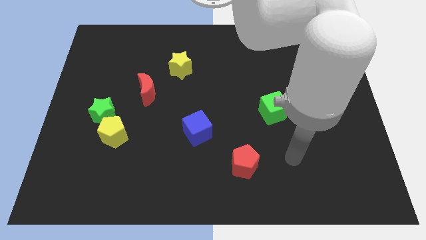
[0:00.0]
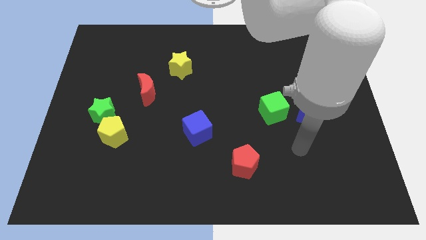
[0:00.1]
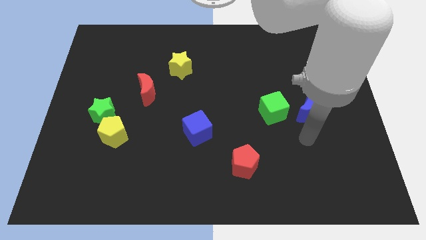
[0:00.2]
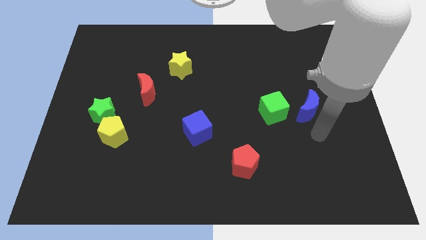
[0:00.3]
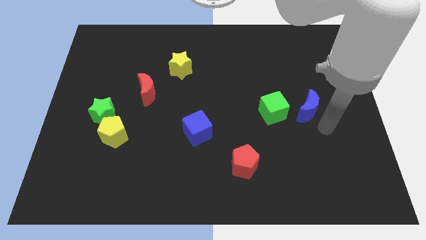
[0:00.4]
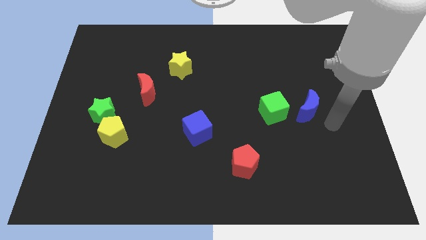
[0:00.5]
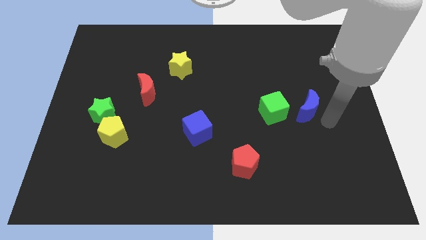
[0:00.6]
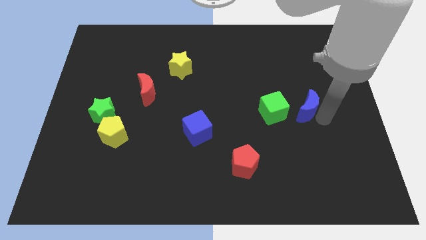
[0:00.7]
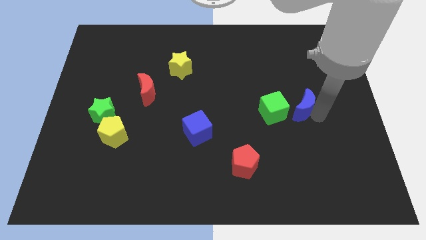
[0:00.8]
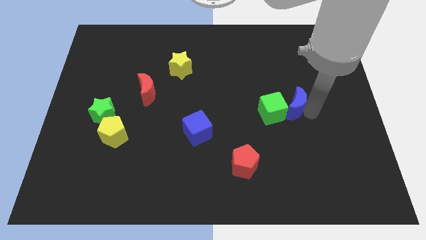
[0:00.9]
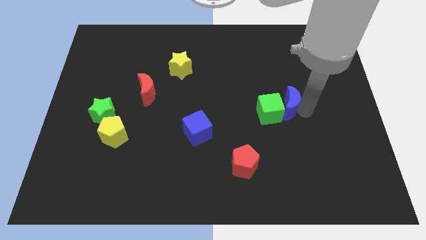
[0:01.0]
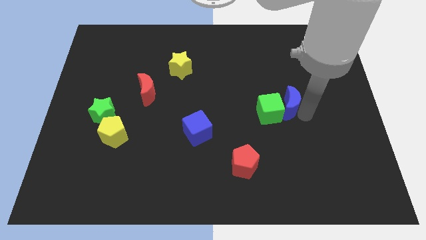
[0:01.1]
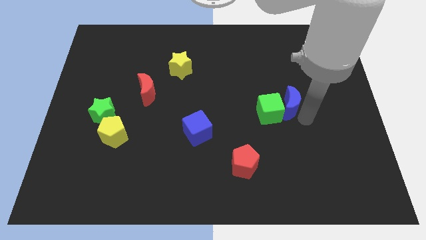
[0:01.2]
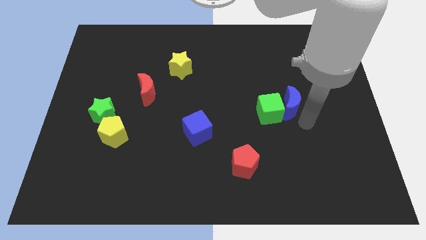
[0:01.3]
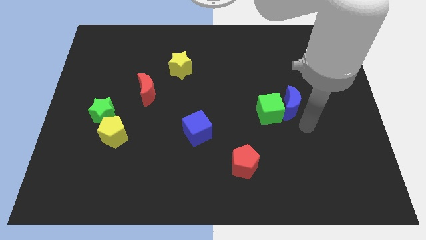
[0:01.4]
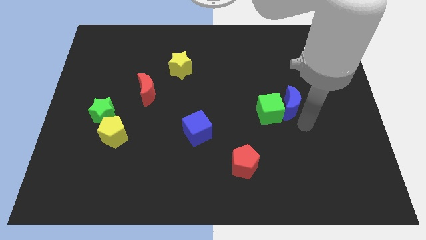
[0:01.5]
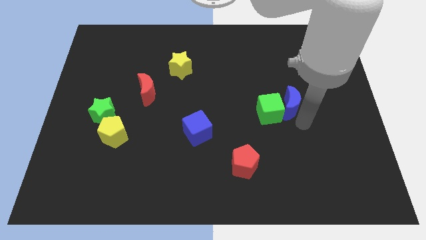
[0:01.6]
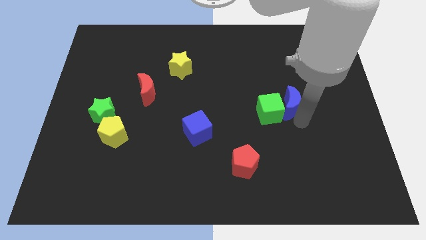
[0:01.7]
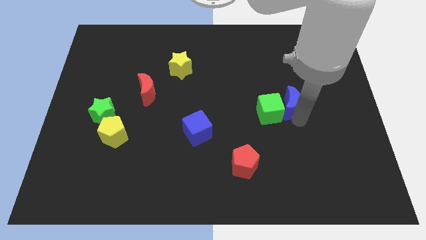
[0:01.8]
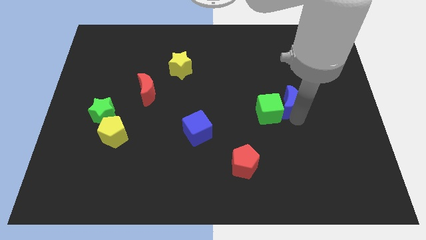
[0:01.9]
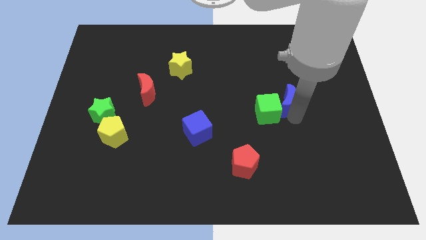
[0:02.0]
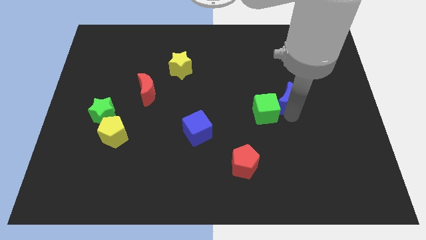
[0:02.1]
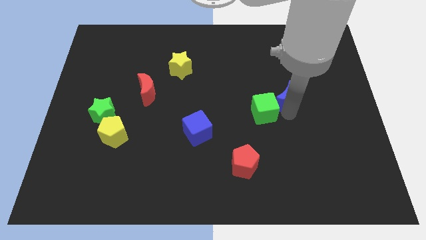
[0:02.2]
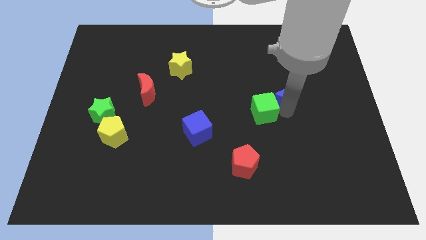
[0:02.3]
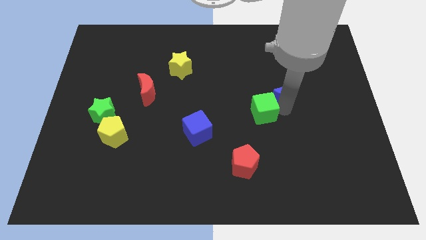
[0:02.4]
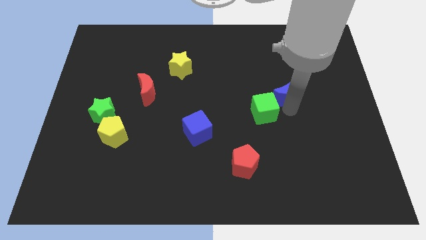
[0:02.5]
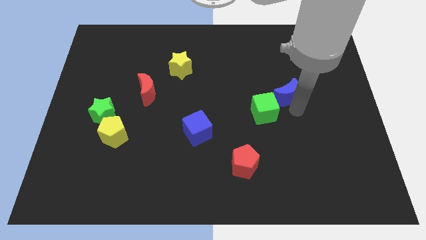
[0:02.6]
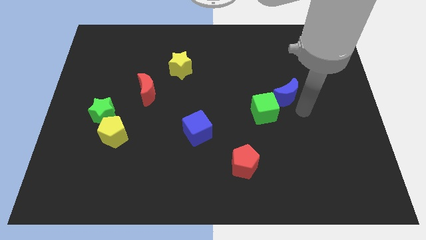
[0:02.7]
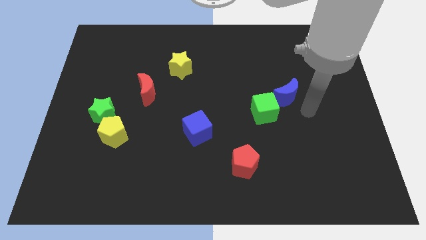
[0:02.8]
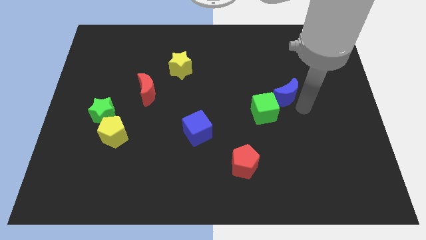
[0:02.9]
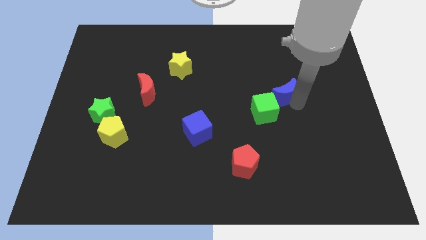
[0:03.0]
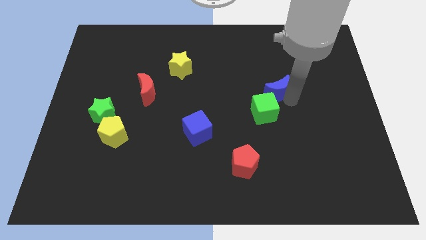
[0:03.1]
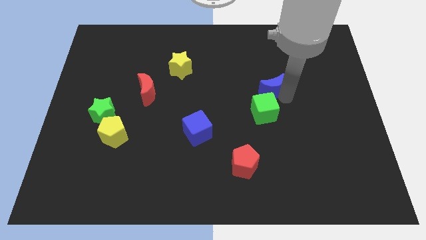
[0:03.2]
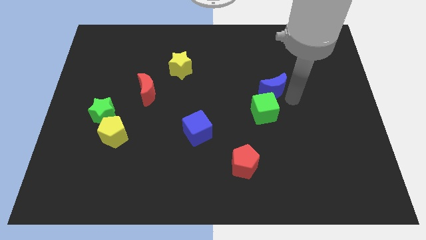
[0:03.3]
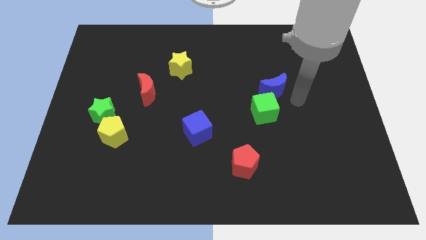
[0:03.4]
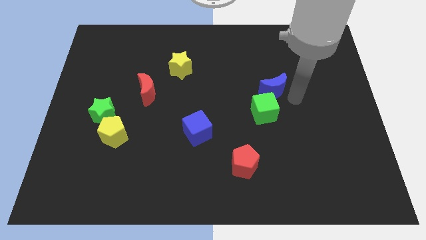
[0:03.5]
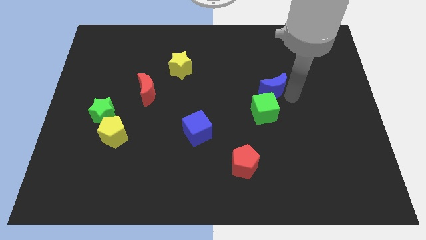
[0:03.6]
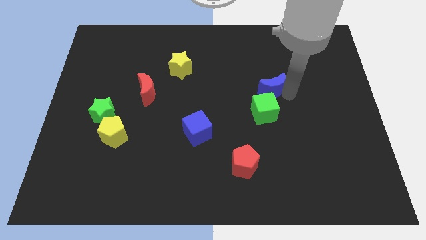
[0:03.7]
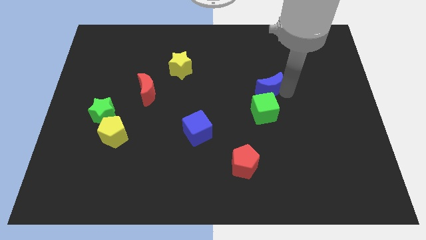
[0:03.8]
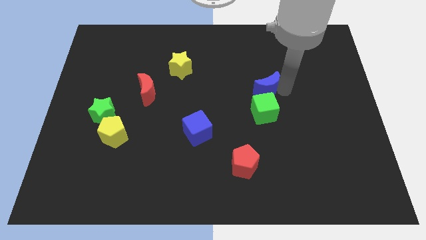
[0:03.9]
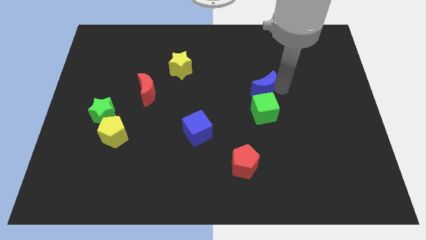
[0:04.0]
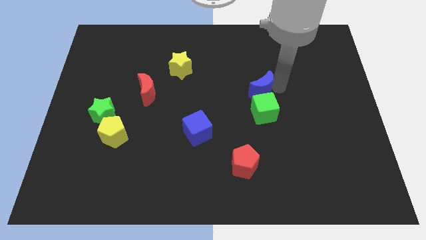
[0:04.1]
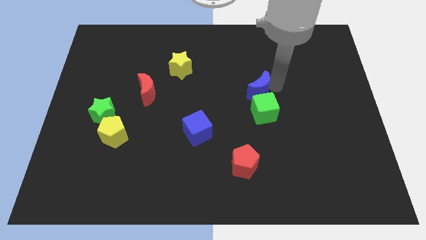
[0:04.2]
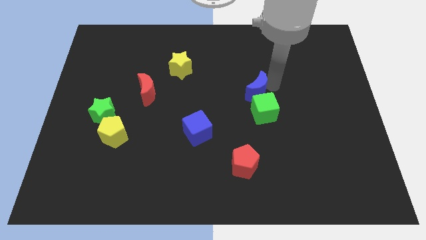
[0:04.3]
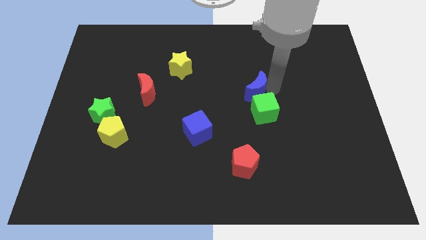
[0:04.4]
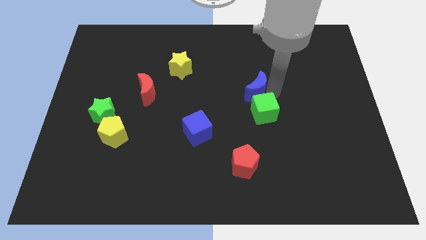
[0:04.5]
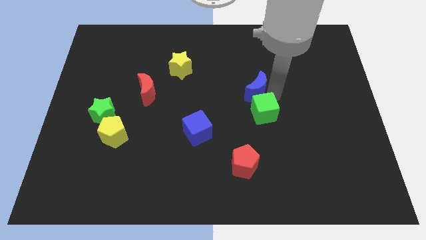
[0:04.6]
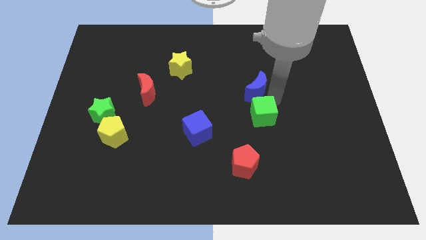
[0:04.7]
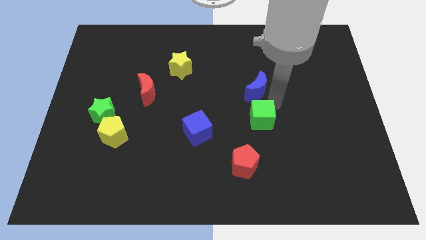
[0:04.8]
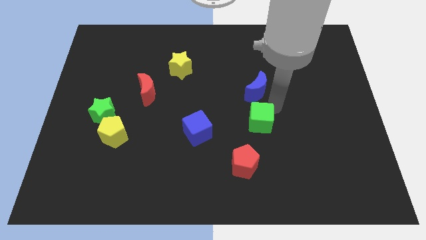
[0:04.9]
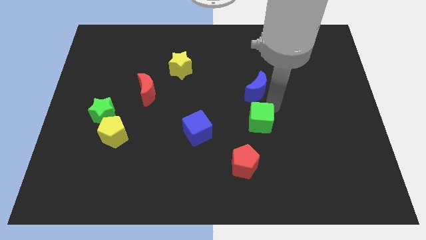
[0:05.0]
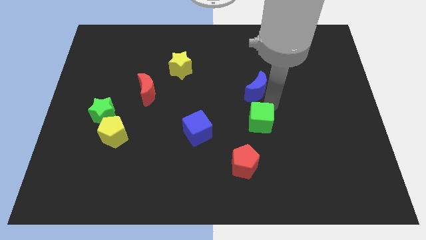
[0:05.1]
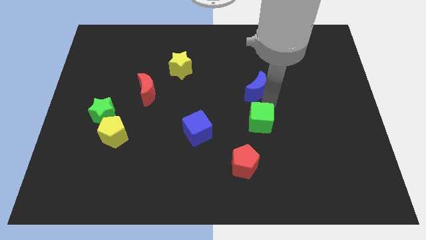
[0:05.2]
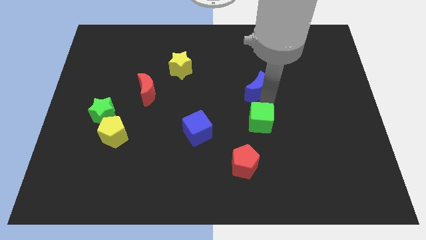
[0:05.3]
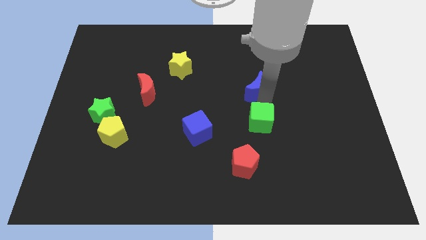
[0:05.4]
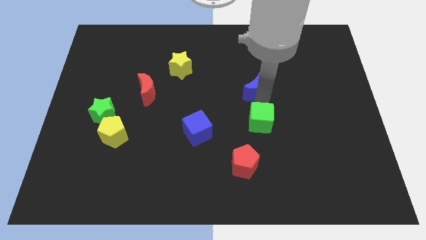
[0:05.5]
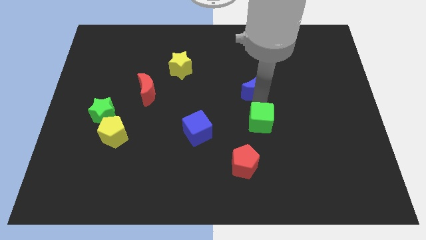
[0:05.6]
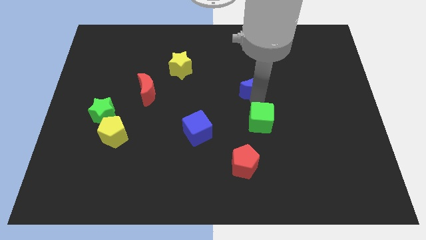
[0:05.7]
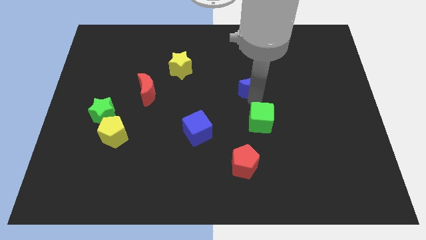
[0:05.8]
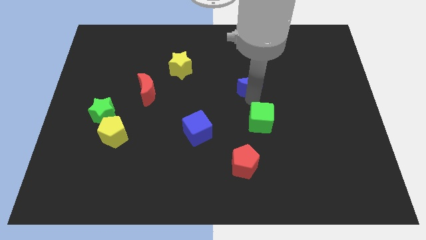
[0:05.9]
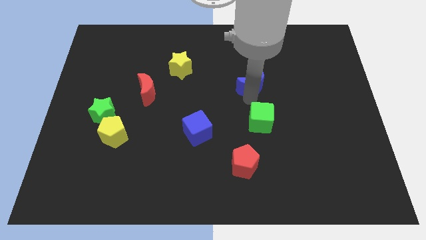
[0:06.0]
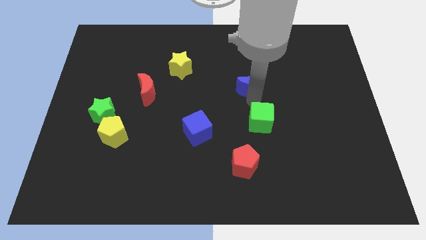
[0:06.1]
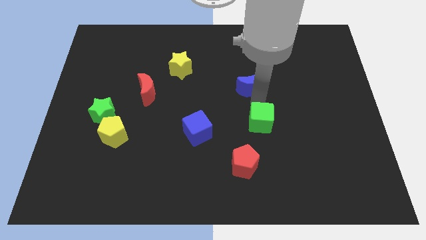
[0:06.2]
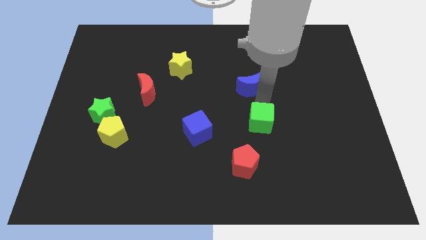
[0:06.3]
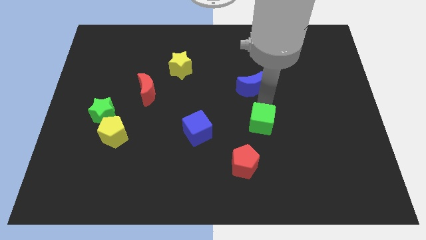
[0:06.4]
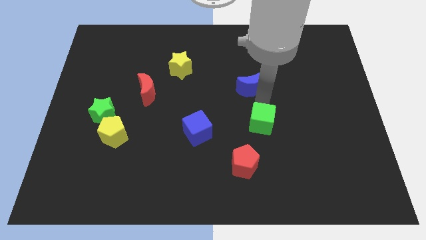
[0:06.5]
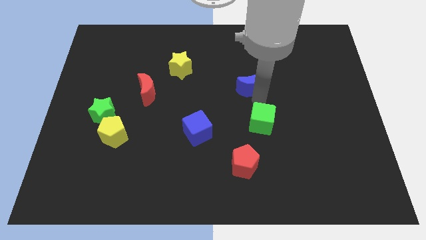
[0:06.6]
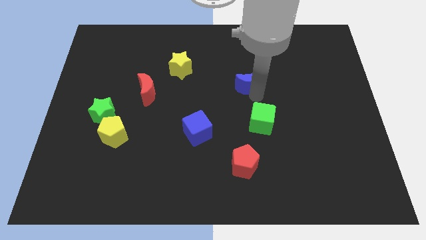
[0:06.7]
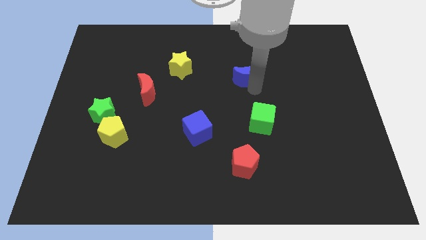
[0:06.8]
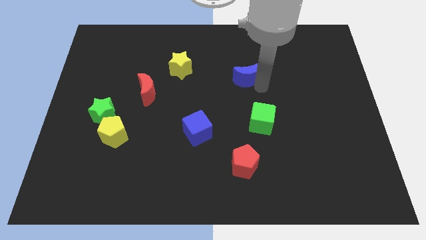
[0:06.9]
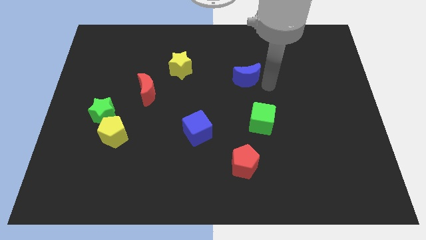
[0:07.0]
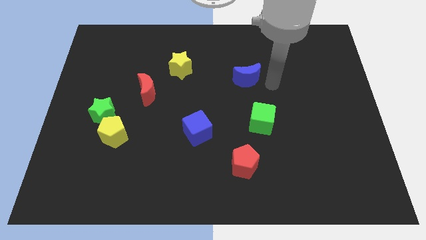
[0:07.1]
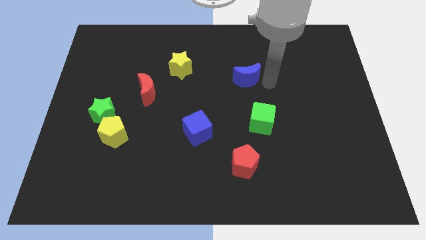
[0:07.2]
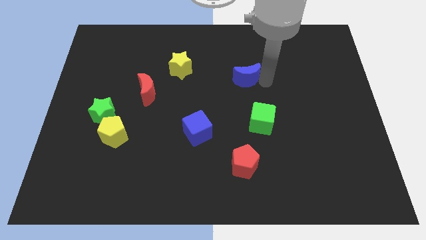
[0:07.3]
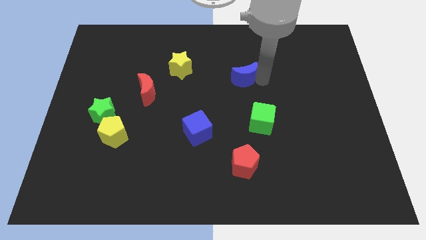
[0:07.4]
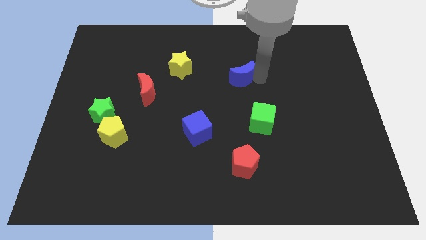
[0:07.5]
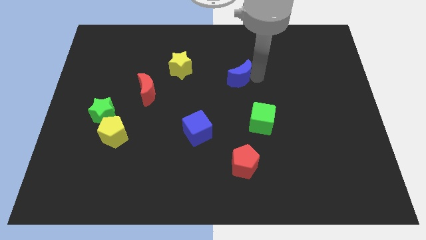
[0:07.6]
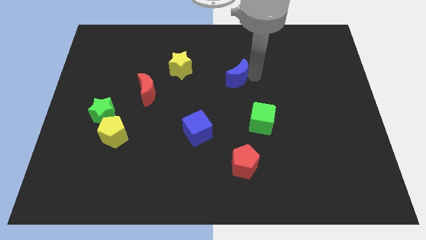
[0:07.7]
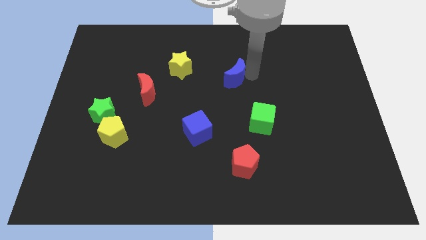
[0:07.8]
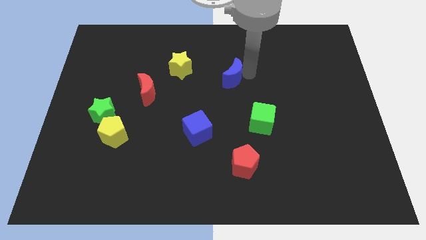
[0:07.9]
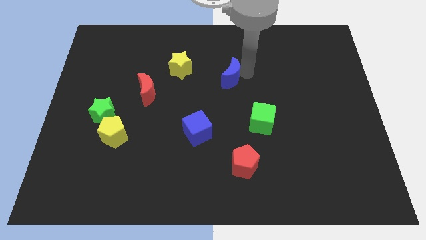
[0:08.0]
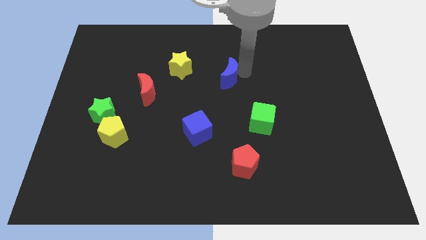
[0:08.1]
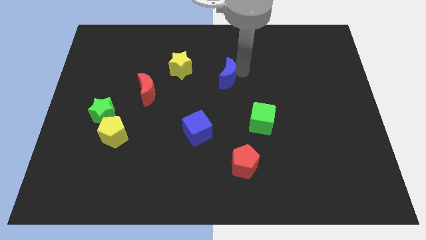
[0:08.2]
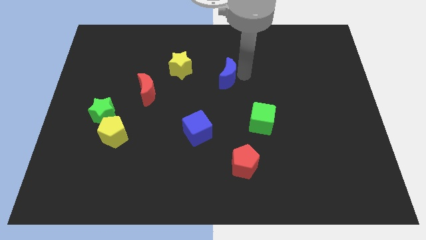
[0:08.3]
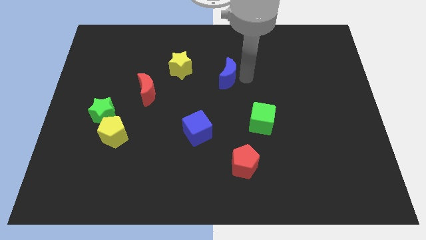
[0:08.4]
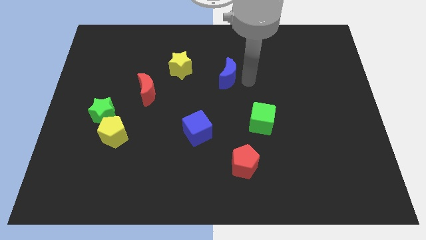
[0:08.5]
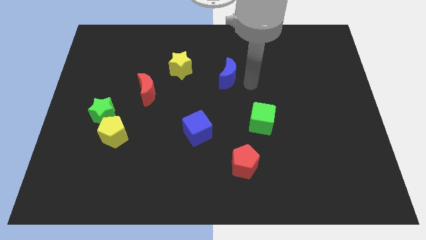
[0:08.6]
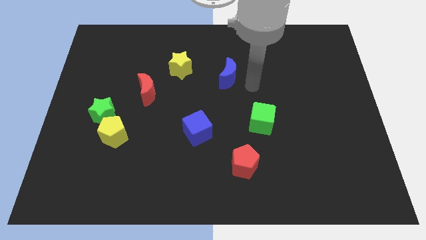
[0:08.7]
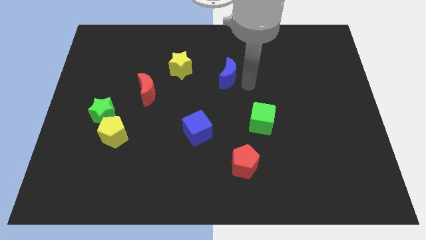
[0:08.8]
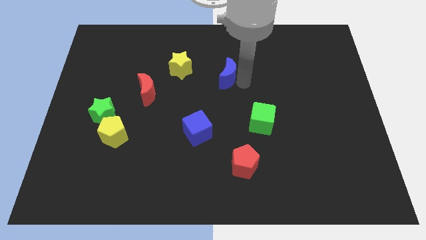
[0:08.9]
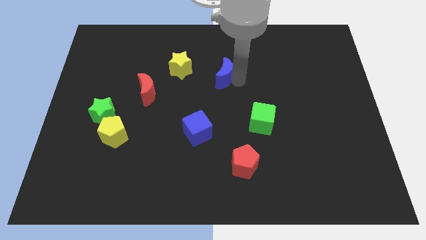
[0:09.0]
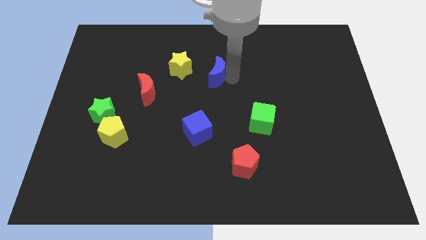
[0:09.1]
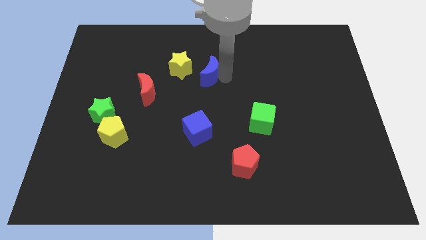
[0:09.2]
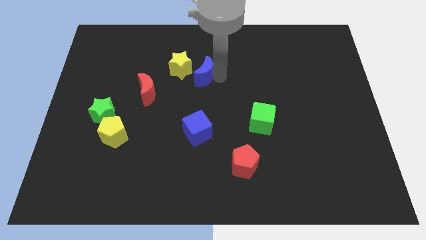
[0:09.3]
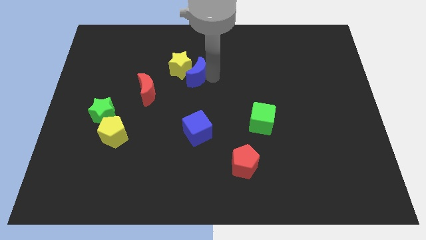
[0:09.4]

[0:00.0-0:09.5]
put the blue moon towards the yellow star
